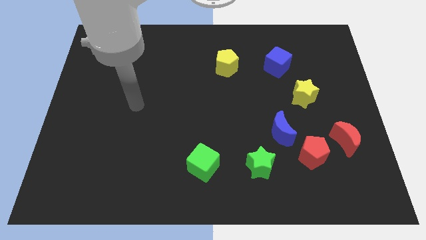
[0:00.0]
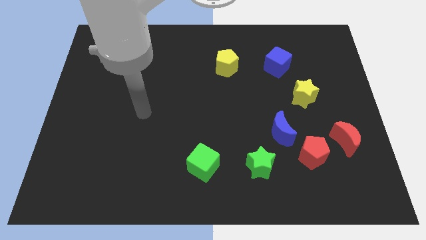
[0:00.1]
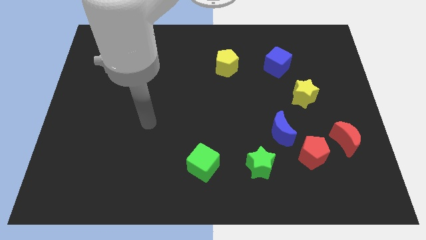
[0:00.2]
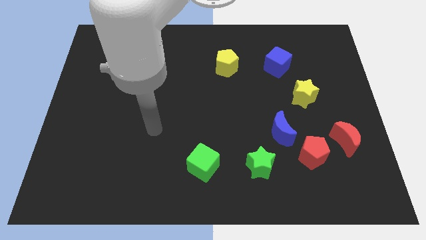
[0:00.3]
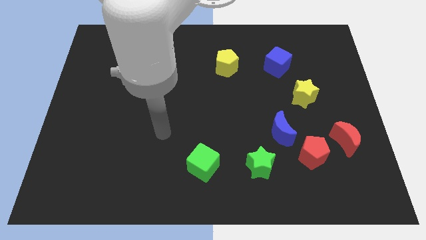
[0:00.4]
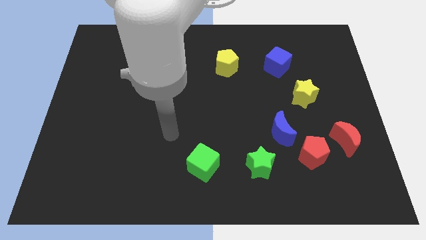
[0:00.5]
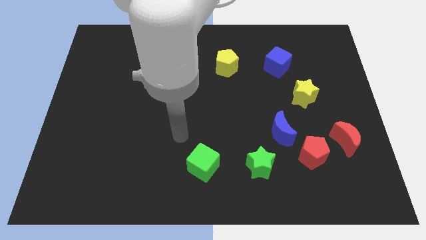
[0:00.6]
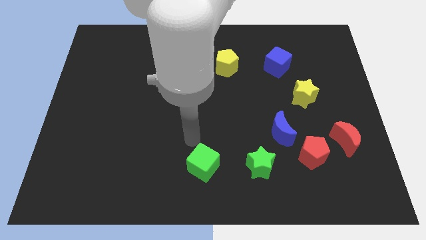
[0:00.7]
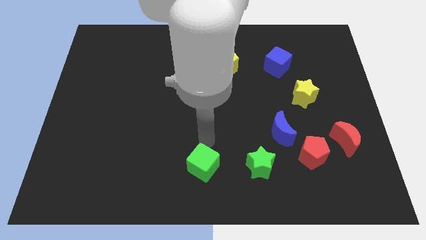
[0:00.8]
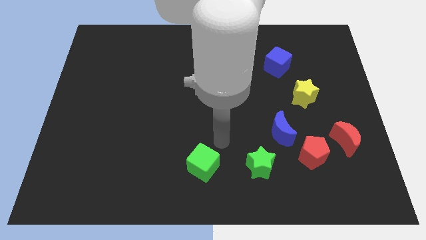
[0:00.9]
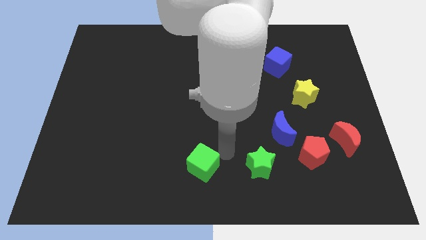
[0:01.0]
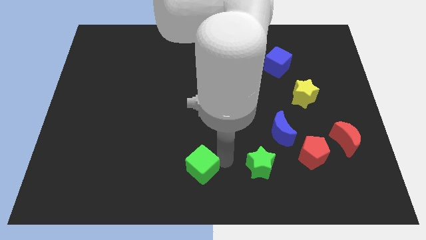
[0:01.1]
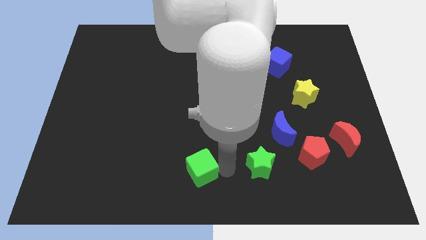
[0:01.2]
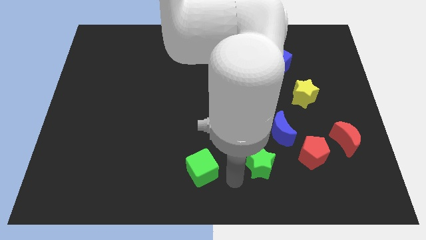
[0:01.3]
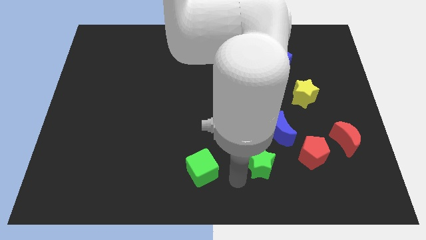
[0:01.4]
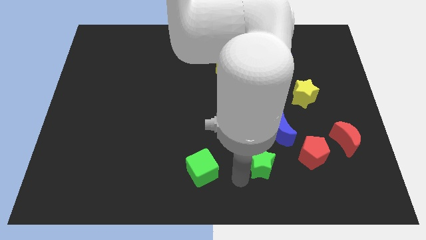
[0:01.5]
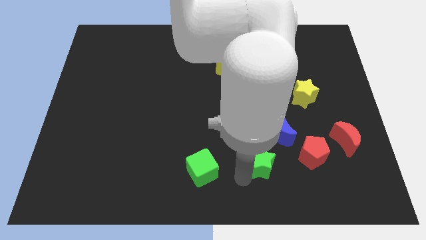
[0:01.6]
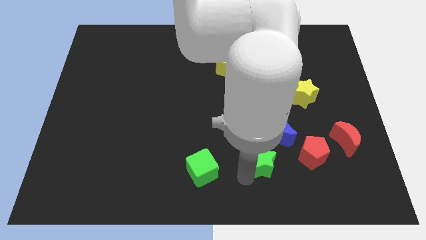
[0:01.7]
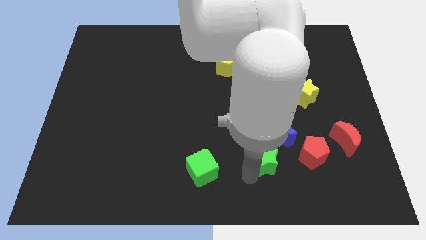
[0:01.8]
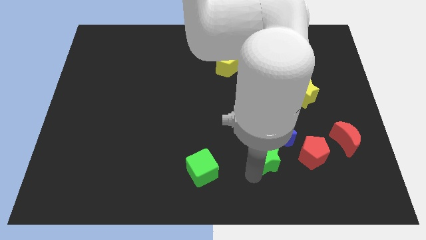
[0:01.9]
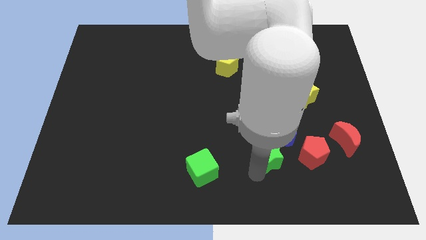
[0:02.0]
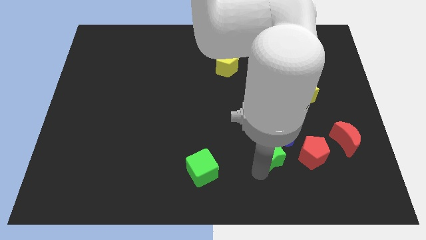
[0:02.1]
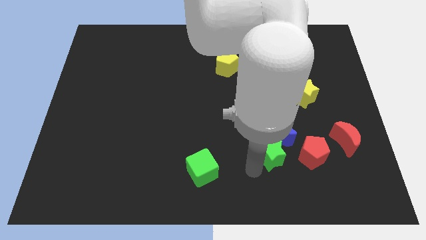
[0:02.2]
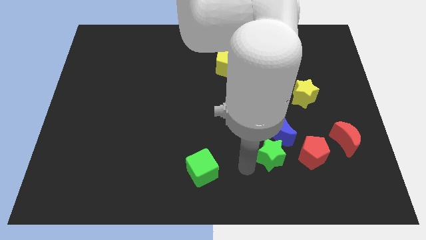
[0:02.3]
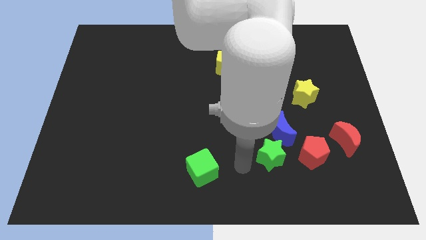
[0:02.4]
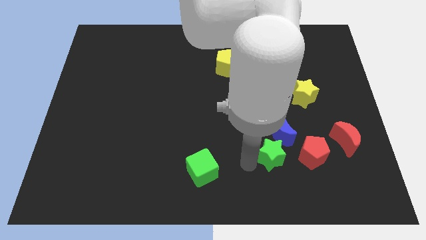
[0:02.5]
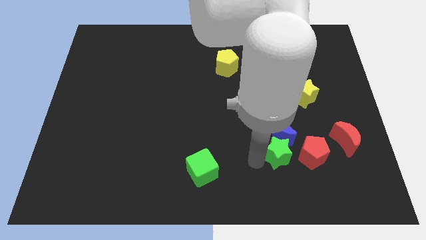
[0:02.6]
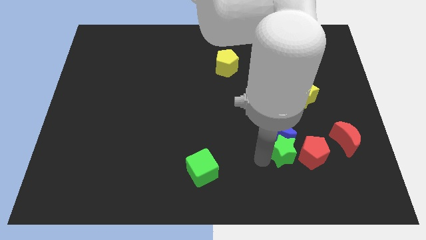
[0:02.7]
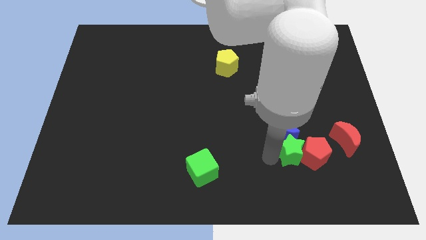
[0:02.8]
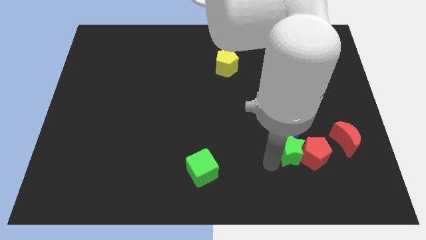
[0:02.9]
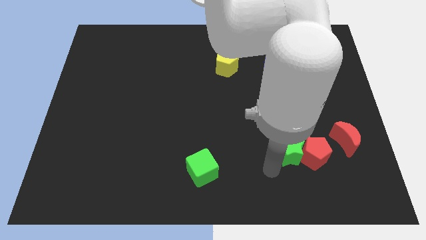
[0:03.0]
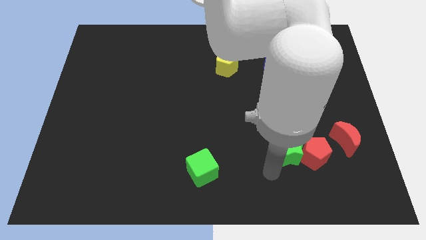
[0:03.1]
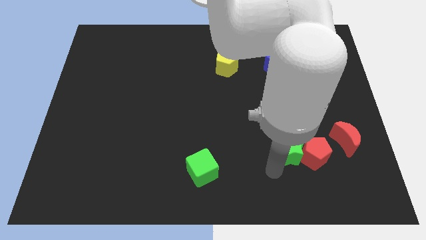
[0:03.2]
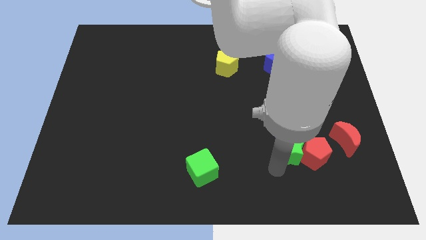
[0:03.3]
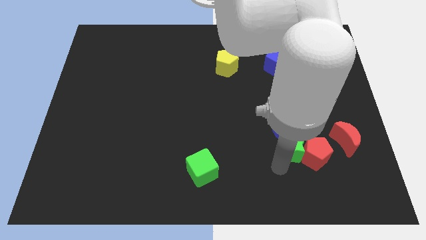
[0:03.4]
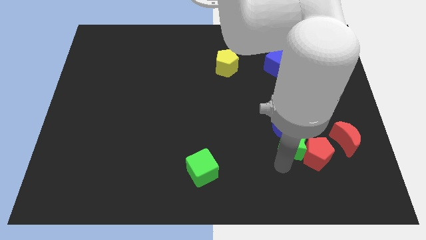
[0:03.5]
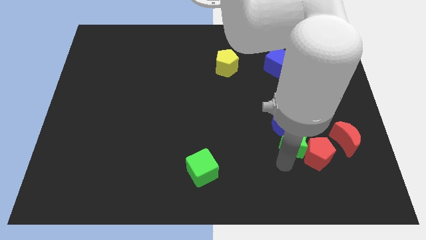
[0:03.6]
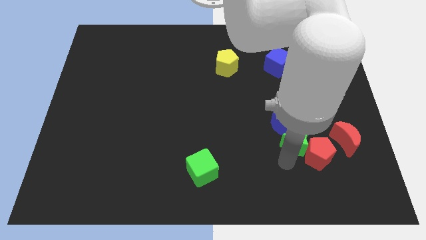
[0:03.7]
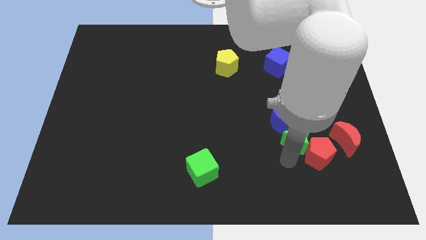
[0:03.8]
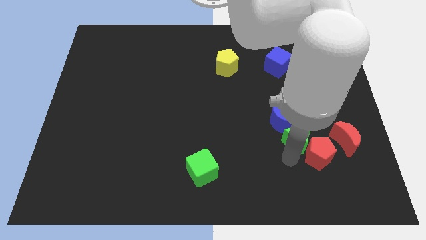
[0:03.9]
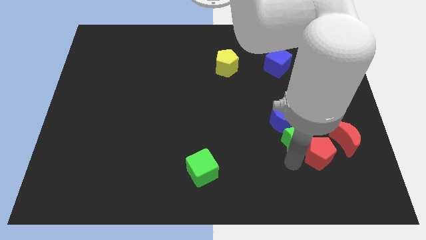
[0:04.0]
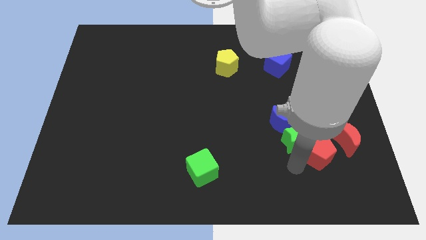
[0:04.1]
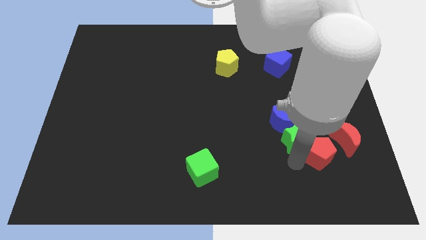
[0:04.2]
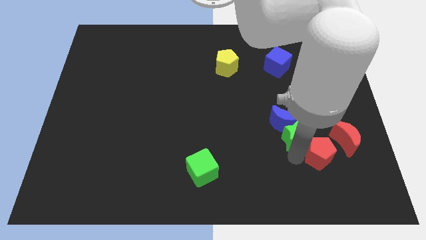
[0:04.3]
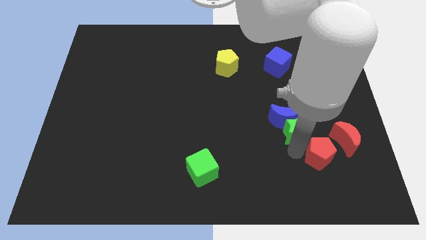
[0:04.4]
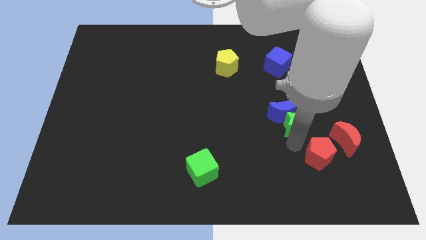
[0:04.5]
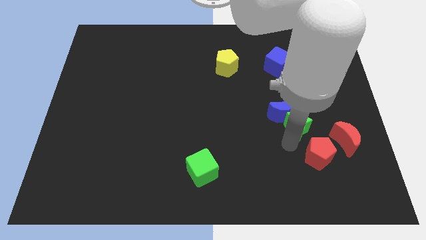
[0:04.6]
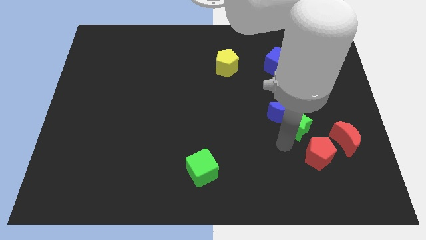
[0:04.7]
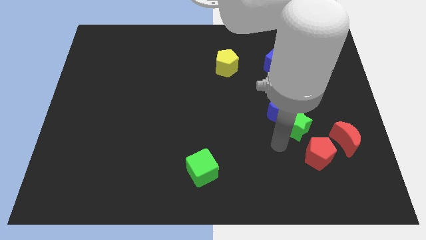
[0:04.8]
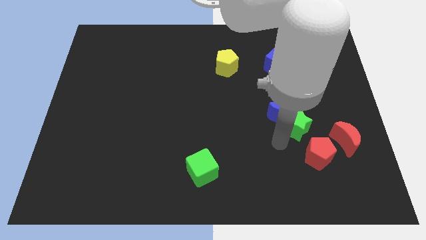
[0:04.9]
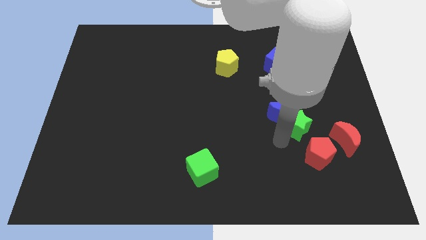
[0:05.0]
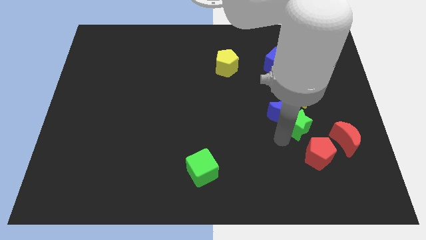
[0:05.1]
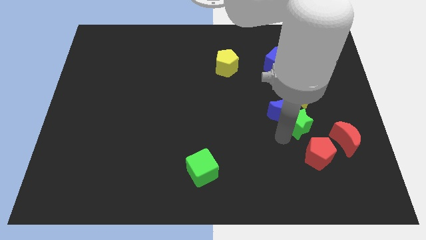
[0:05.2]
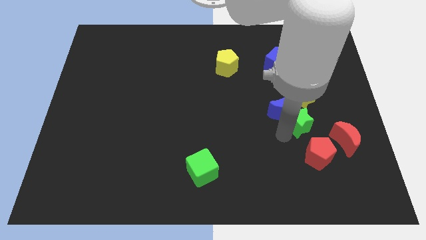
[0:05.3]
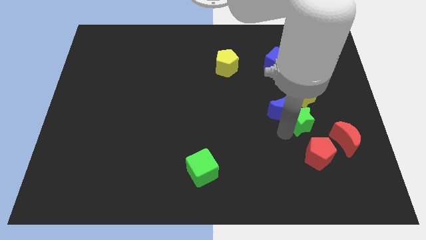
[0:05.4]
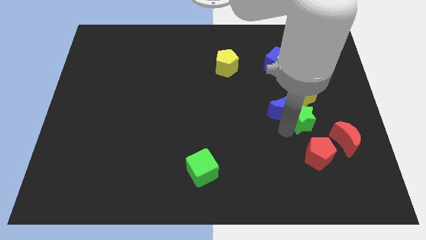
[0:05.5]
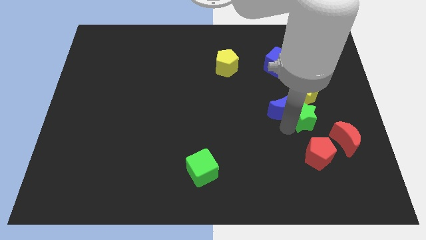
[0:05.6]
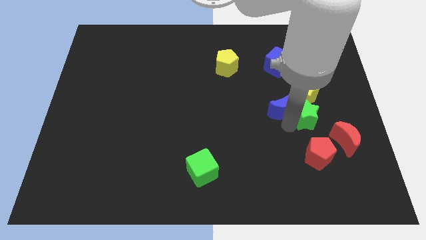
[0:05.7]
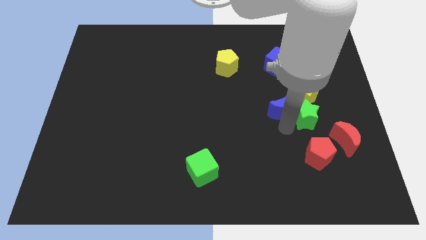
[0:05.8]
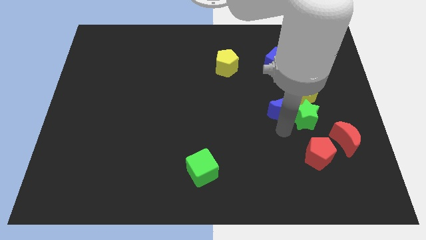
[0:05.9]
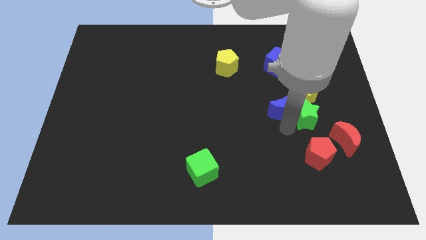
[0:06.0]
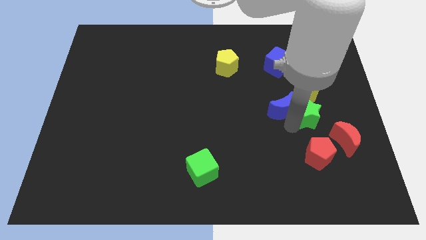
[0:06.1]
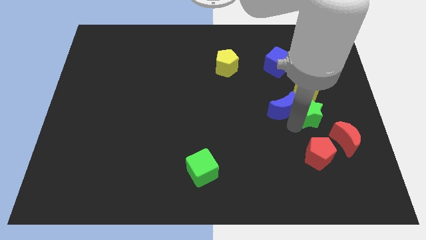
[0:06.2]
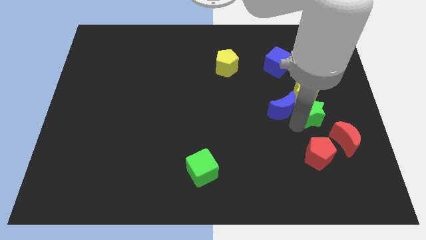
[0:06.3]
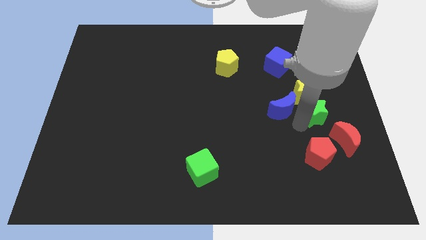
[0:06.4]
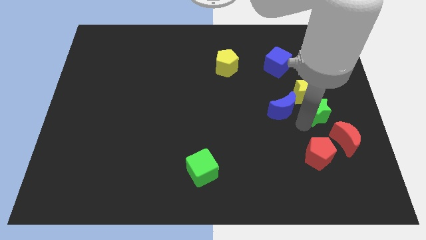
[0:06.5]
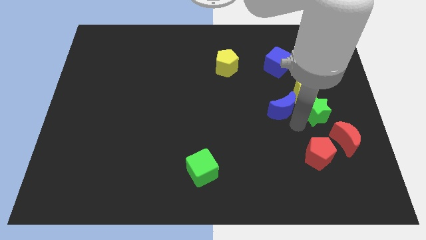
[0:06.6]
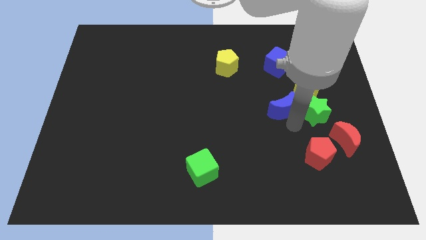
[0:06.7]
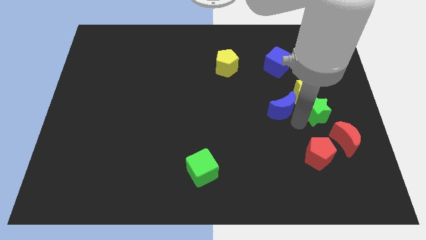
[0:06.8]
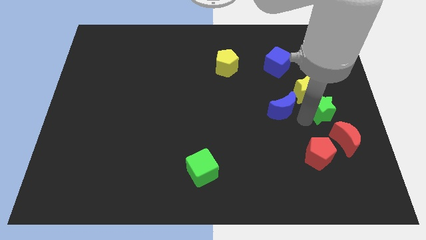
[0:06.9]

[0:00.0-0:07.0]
slide the green star to the top side of the red moon

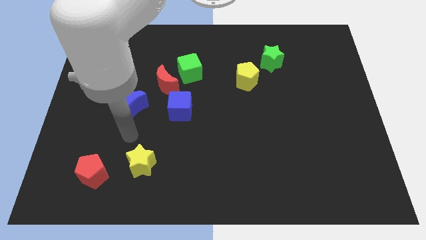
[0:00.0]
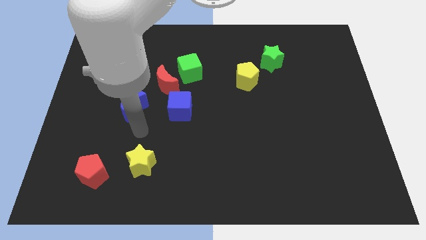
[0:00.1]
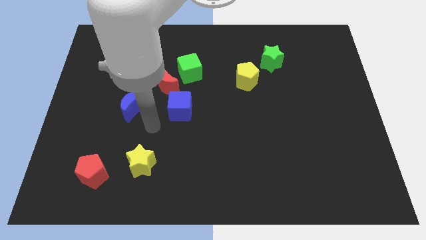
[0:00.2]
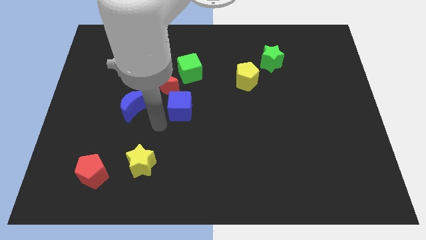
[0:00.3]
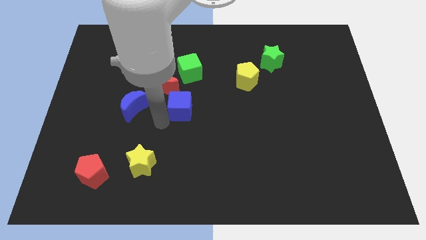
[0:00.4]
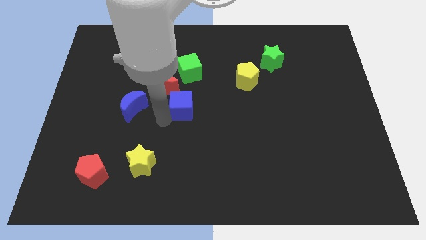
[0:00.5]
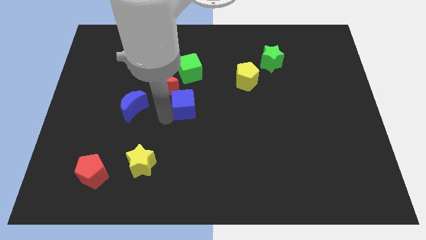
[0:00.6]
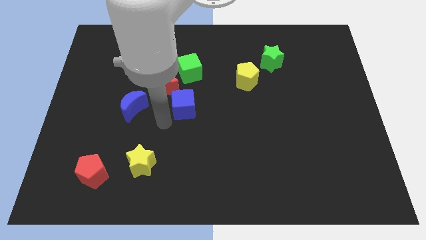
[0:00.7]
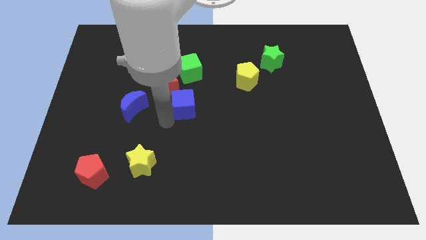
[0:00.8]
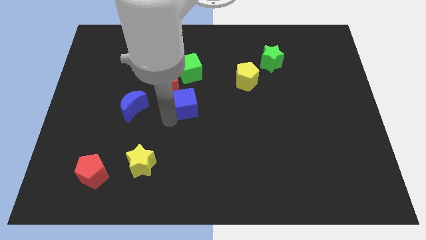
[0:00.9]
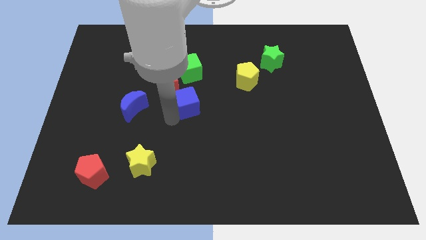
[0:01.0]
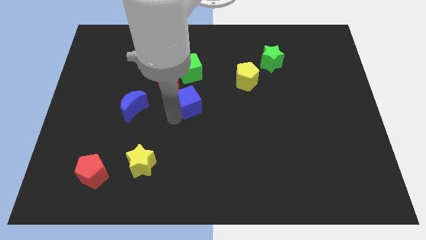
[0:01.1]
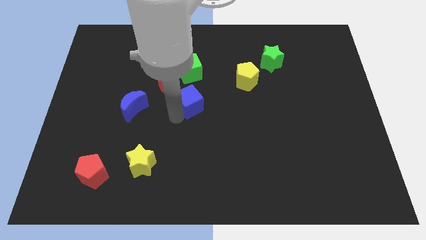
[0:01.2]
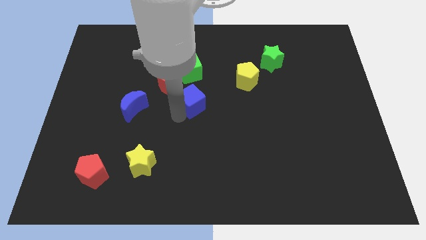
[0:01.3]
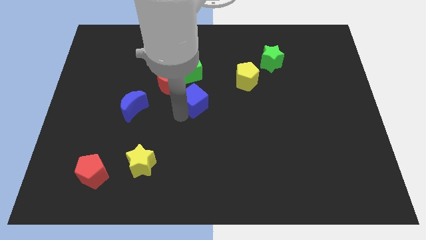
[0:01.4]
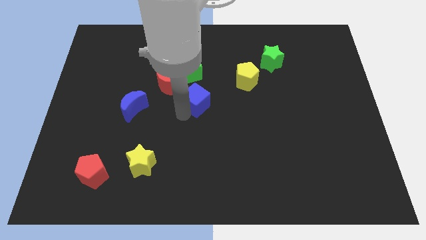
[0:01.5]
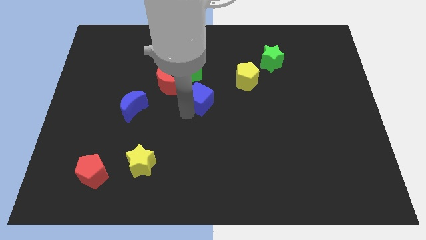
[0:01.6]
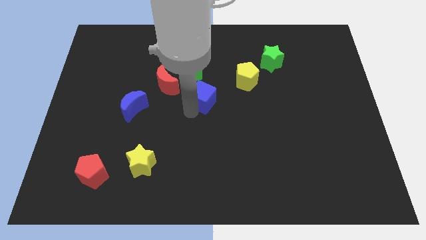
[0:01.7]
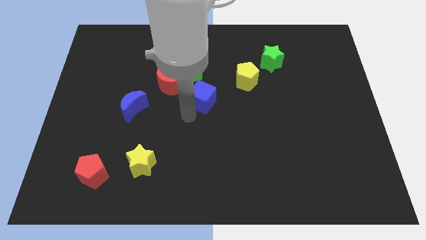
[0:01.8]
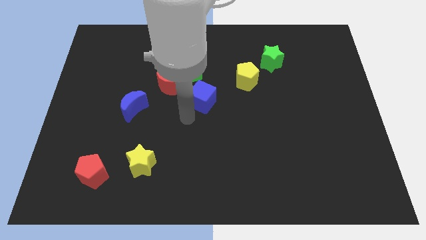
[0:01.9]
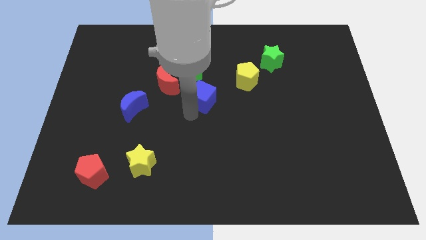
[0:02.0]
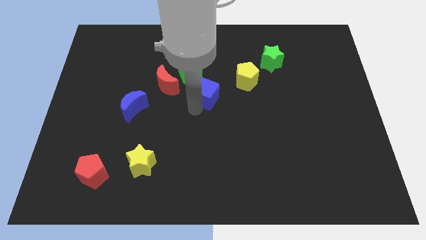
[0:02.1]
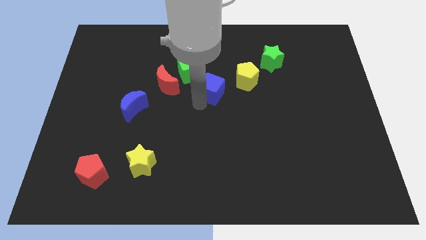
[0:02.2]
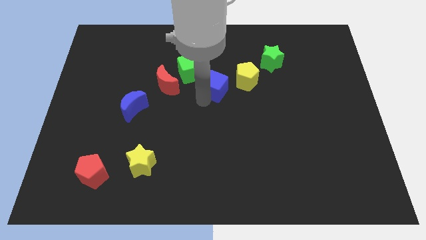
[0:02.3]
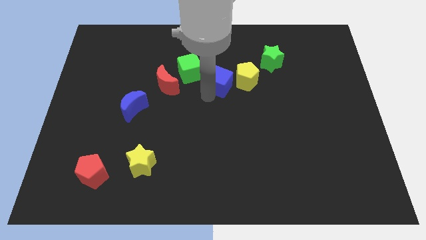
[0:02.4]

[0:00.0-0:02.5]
move the blue cube right of the green cube
